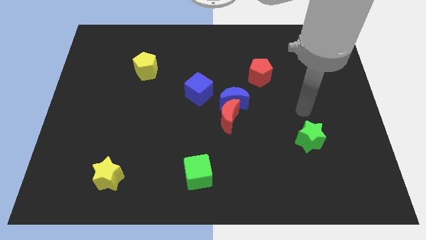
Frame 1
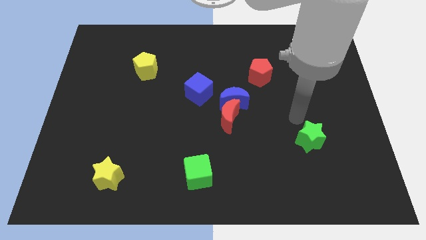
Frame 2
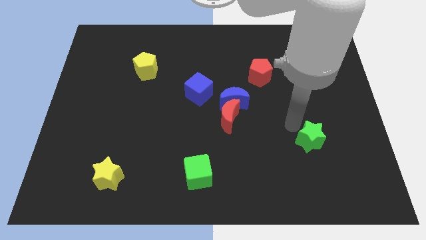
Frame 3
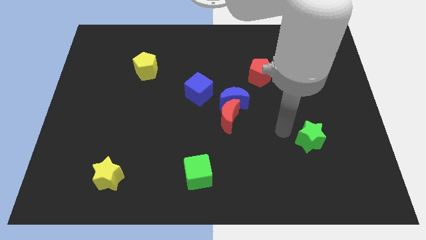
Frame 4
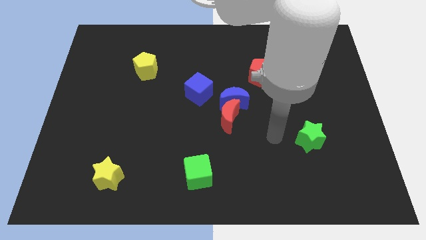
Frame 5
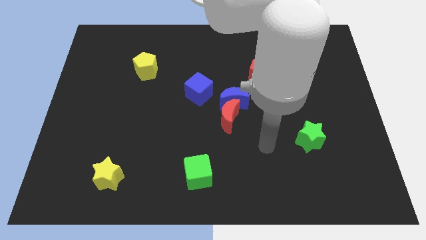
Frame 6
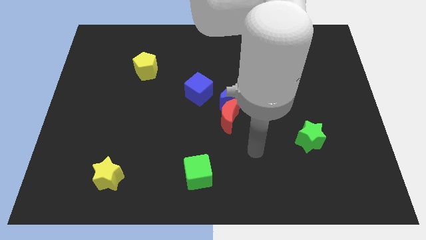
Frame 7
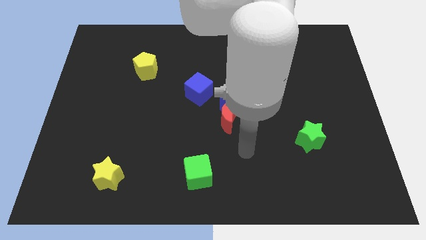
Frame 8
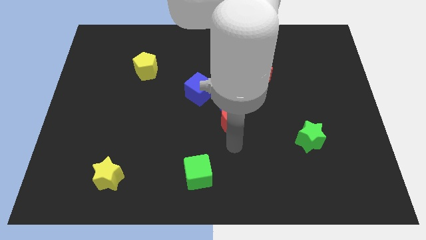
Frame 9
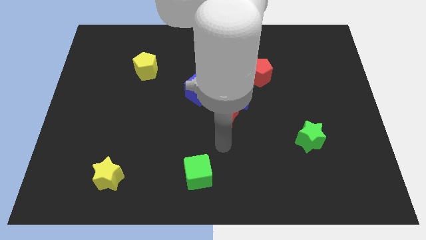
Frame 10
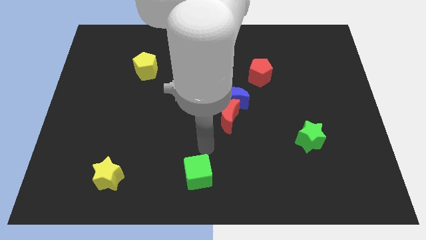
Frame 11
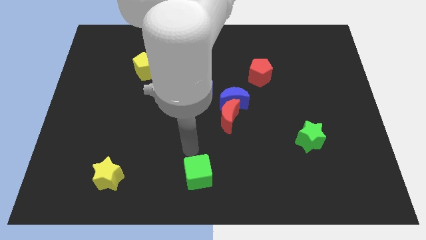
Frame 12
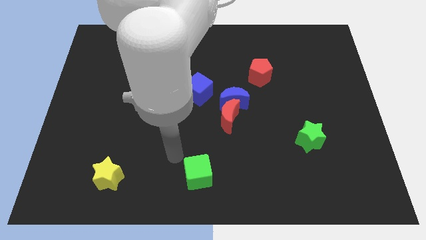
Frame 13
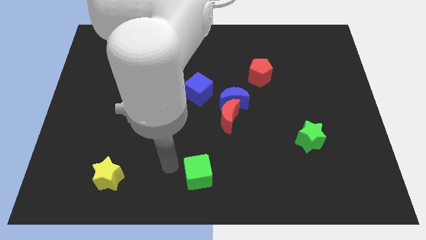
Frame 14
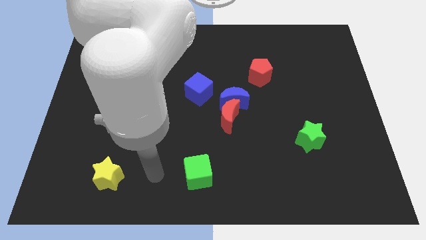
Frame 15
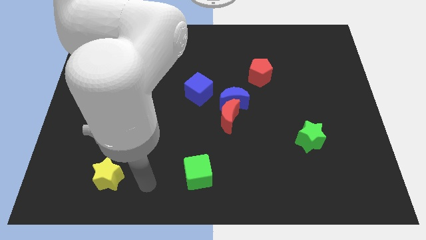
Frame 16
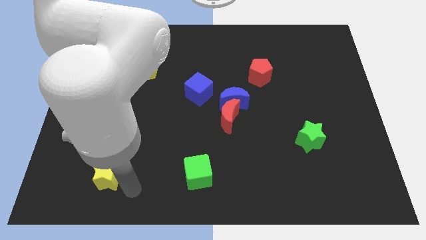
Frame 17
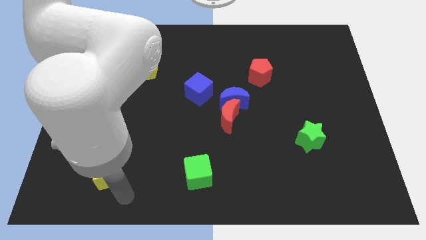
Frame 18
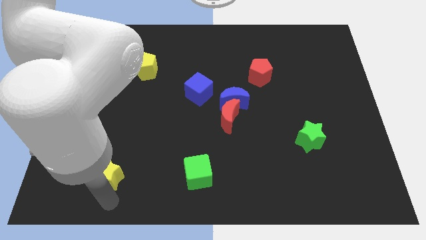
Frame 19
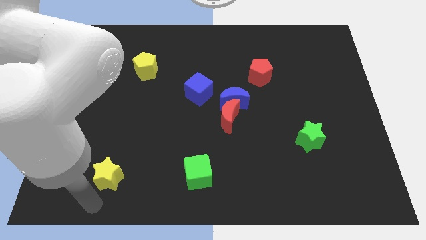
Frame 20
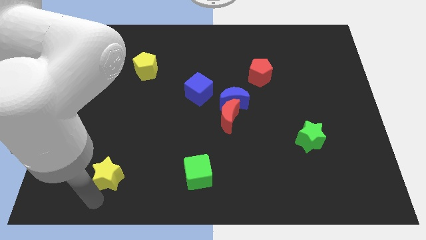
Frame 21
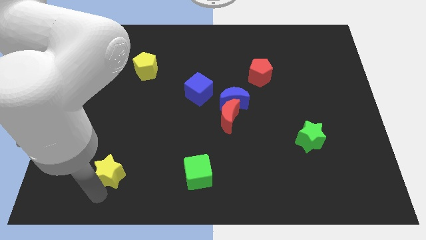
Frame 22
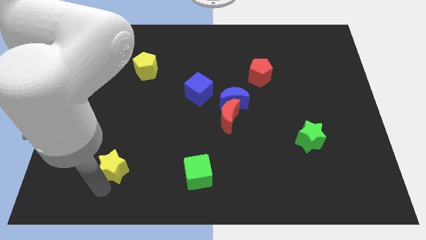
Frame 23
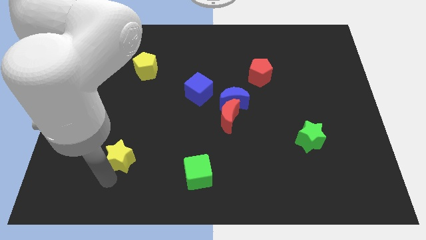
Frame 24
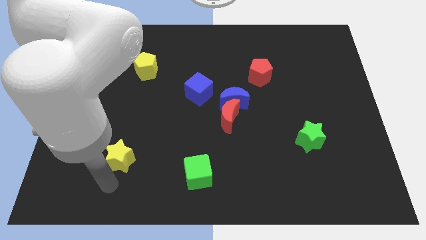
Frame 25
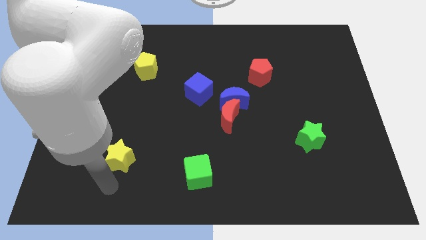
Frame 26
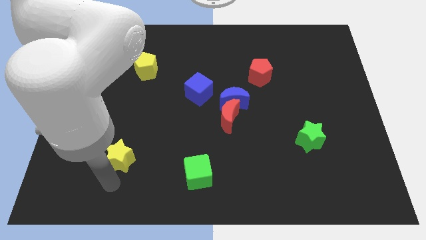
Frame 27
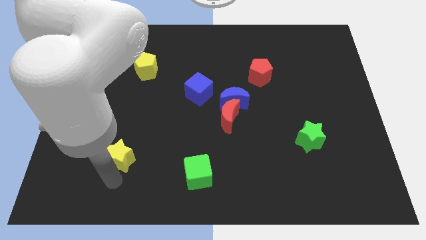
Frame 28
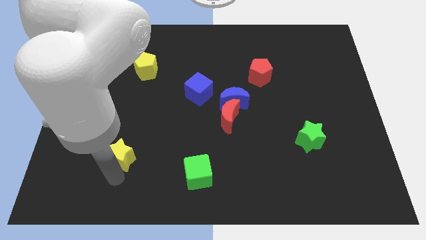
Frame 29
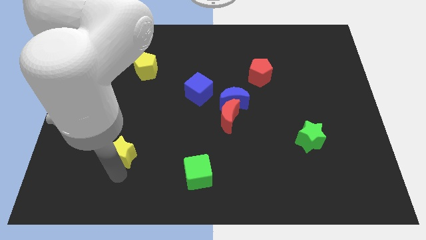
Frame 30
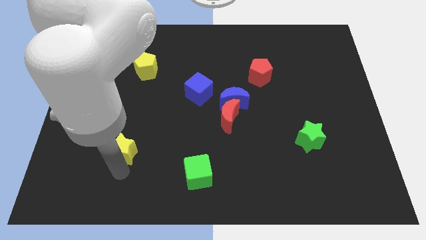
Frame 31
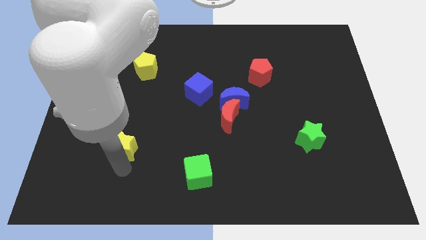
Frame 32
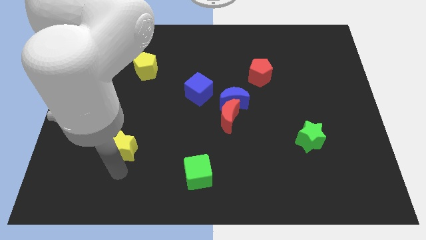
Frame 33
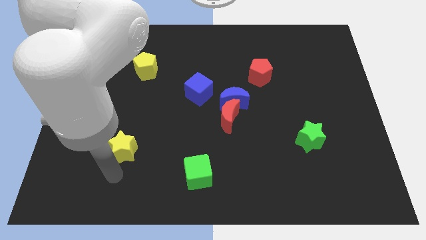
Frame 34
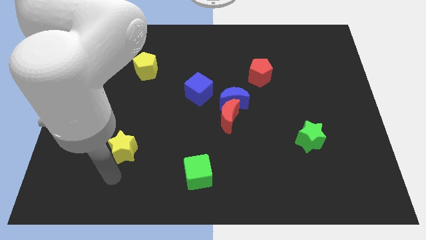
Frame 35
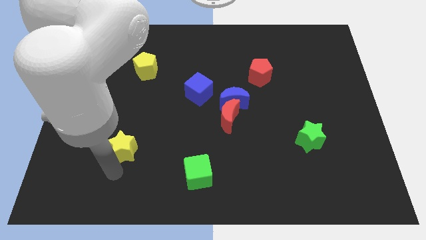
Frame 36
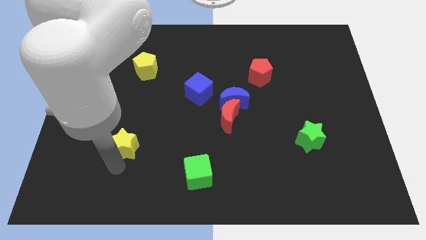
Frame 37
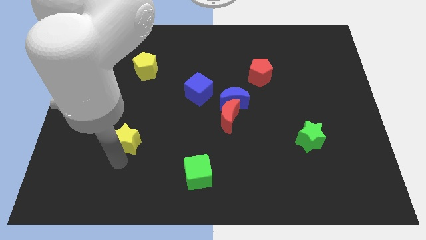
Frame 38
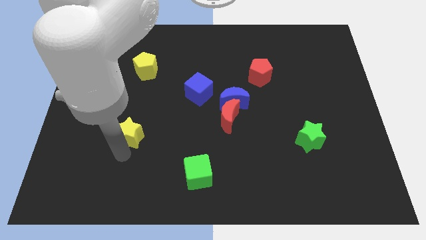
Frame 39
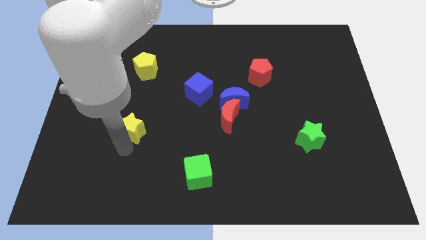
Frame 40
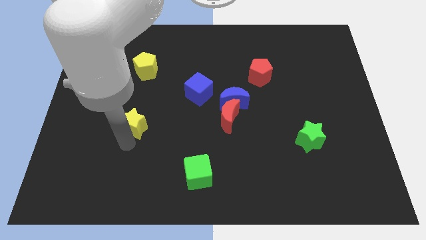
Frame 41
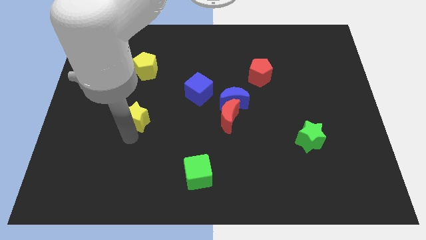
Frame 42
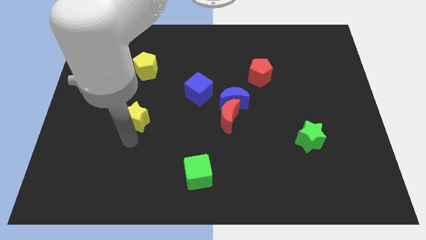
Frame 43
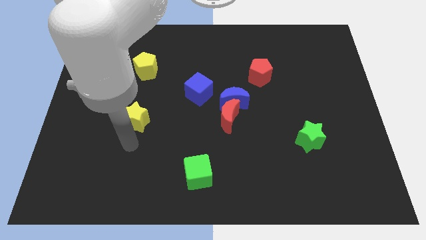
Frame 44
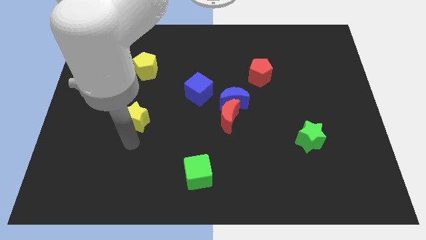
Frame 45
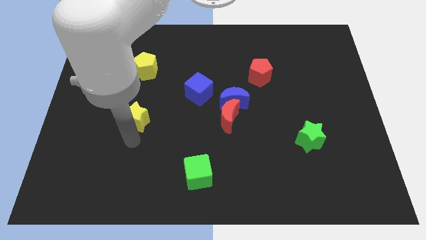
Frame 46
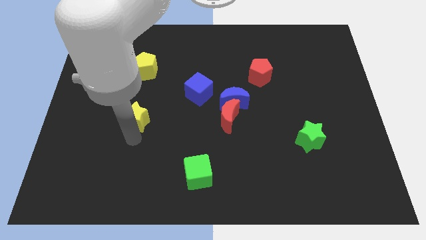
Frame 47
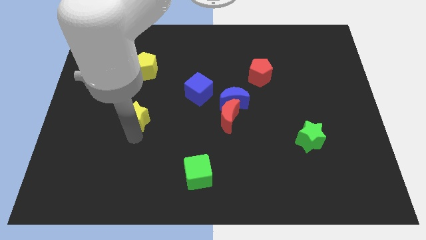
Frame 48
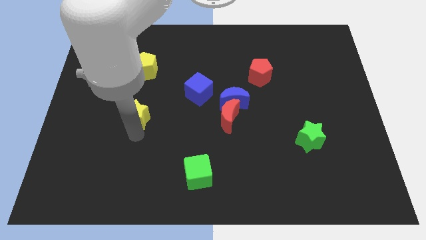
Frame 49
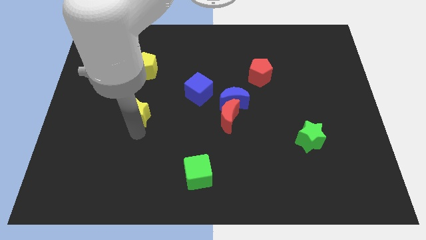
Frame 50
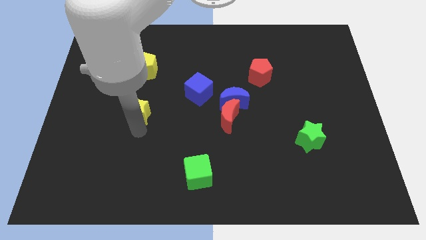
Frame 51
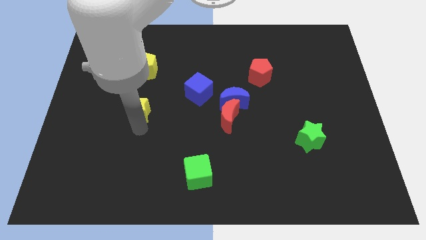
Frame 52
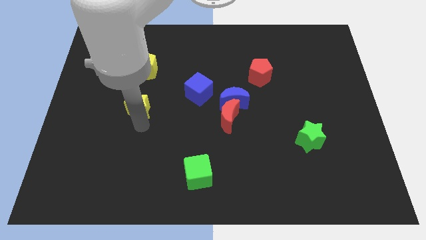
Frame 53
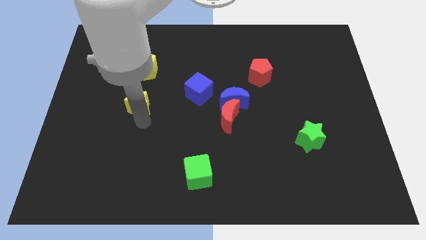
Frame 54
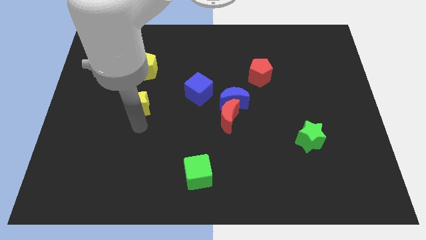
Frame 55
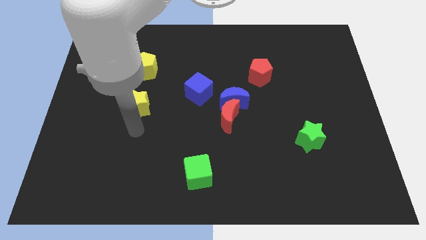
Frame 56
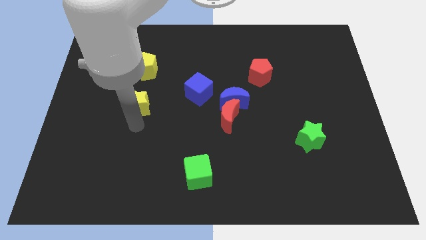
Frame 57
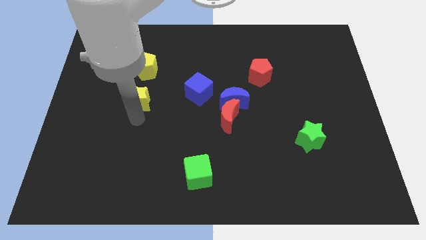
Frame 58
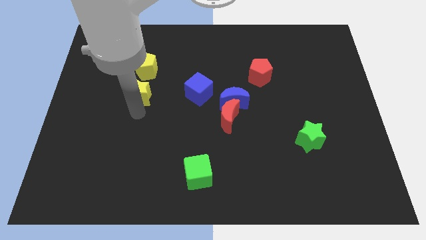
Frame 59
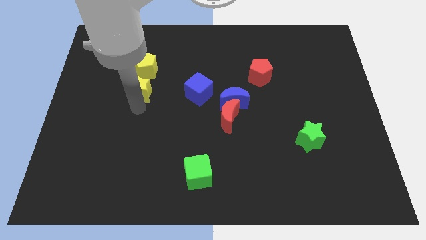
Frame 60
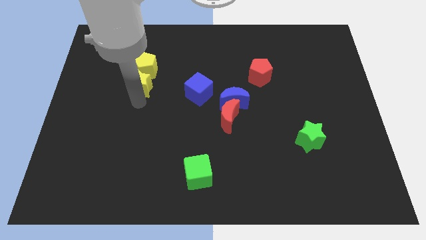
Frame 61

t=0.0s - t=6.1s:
slide the yellow star to the yellow pentagon

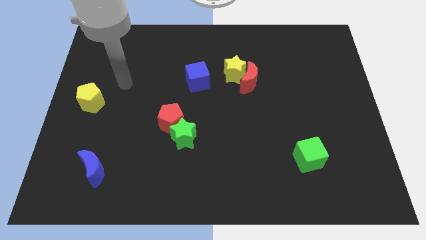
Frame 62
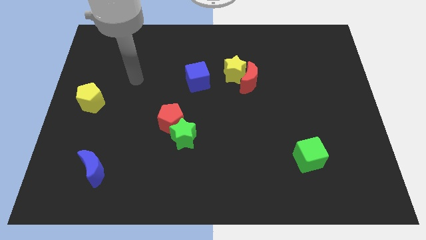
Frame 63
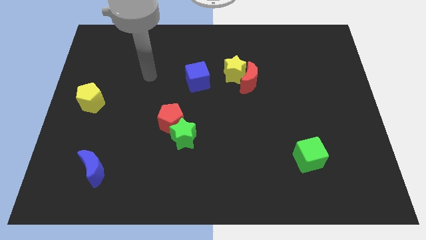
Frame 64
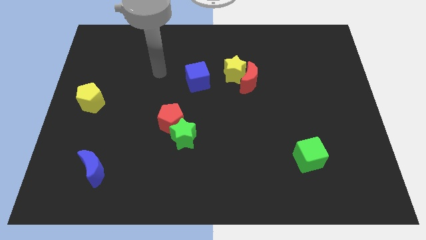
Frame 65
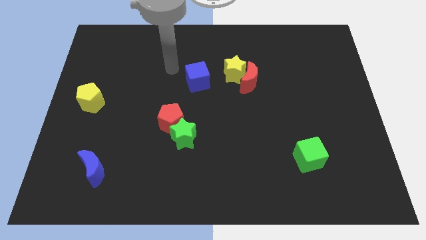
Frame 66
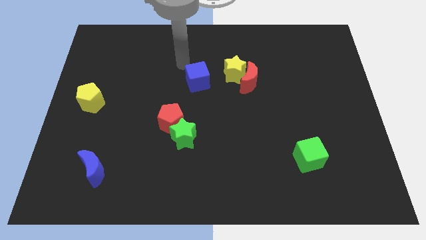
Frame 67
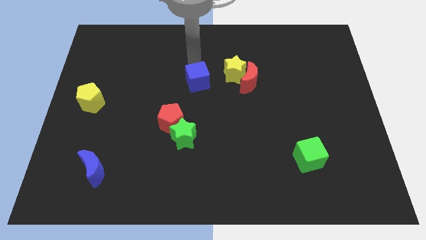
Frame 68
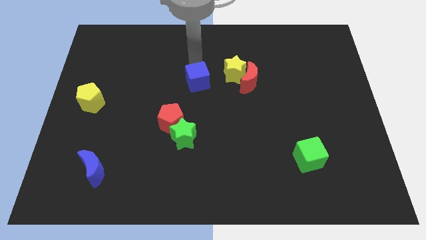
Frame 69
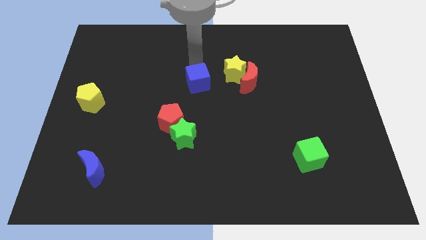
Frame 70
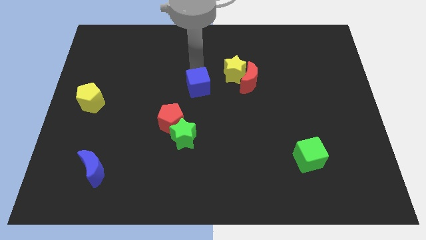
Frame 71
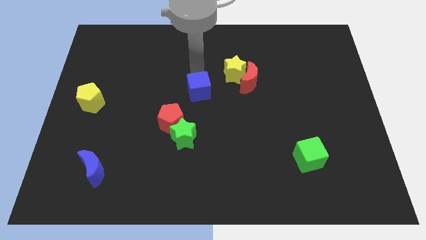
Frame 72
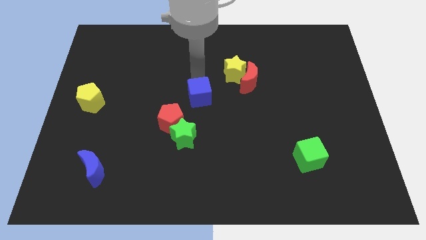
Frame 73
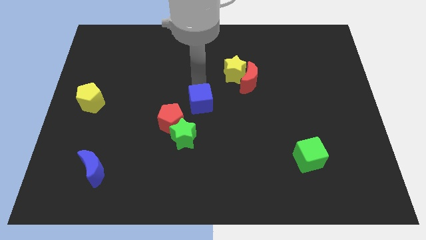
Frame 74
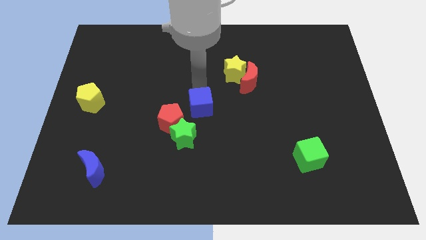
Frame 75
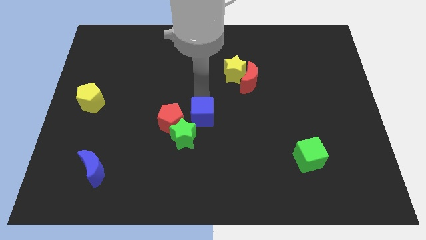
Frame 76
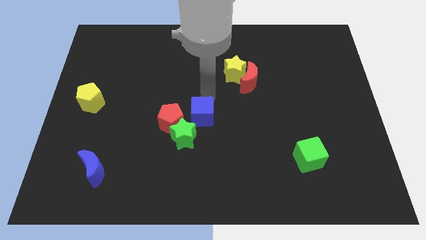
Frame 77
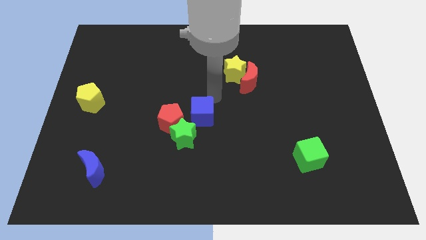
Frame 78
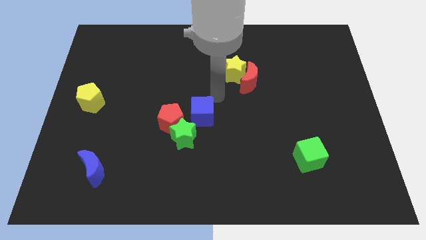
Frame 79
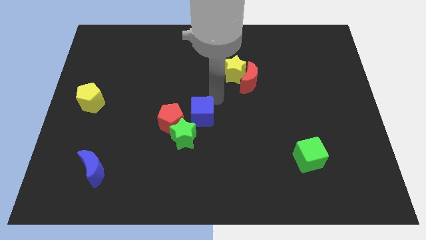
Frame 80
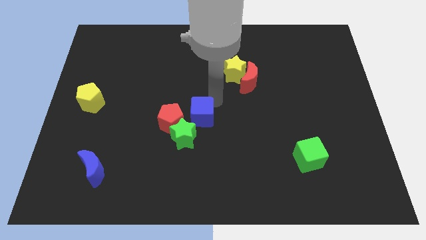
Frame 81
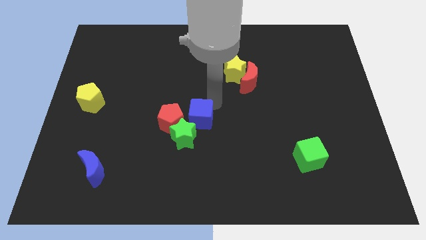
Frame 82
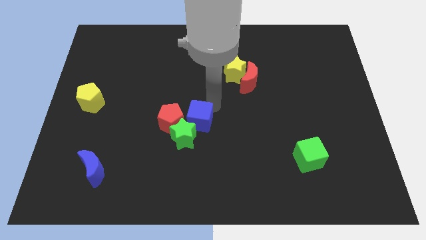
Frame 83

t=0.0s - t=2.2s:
slide the blue cube towards the green star

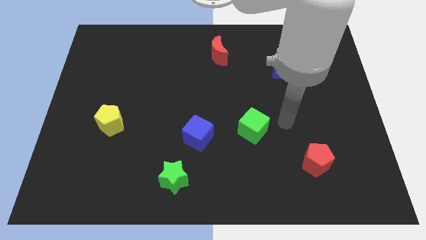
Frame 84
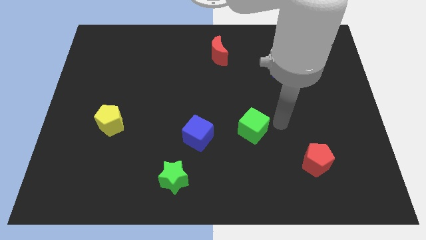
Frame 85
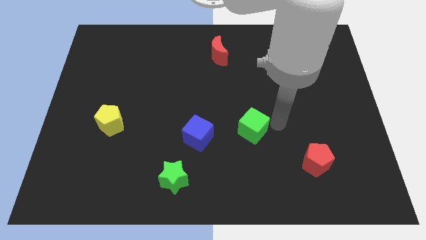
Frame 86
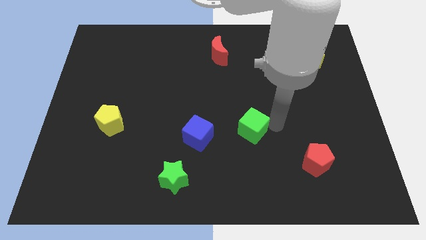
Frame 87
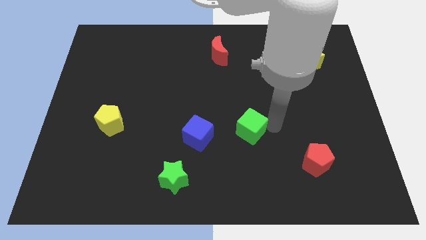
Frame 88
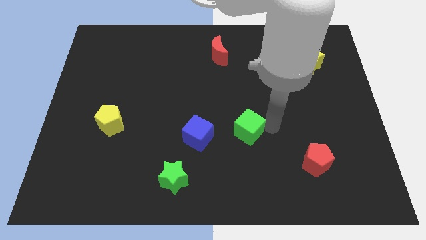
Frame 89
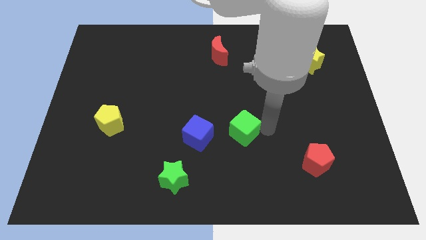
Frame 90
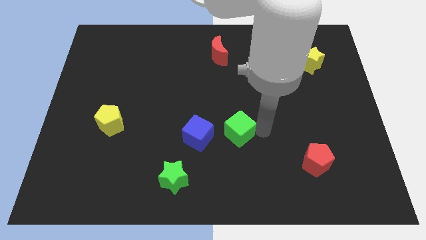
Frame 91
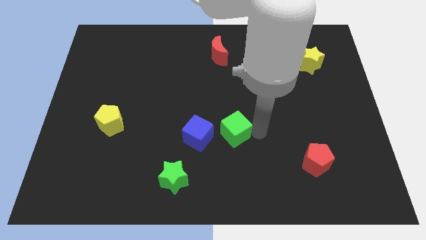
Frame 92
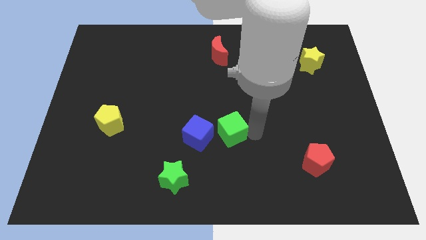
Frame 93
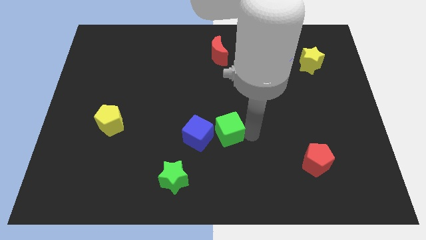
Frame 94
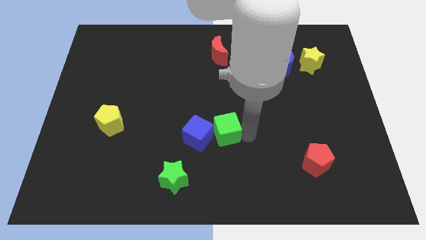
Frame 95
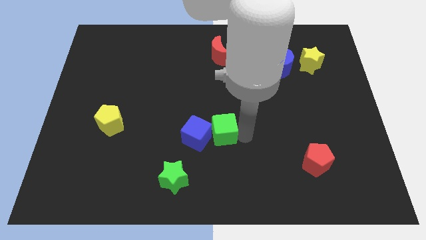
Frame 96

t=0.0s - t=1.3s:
put the green cube to the blue cube
